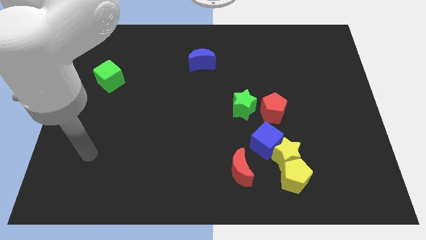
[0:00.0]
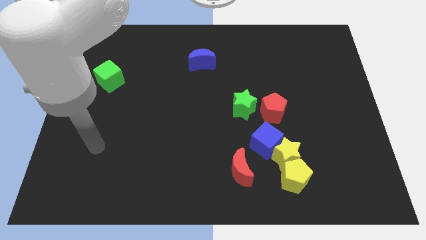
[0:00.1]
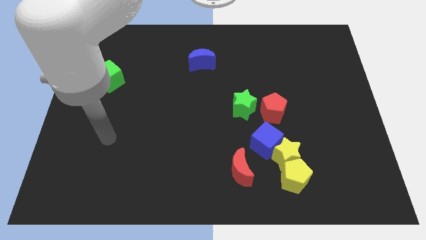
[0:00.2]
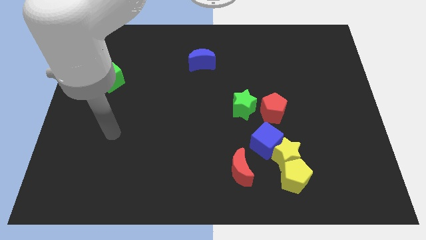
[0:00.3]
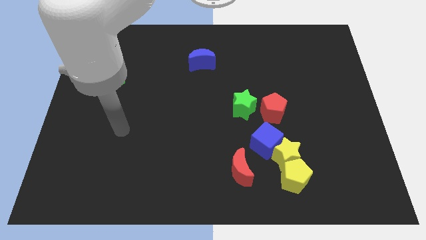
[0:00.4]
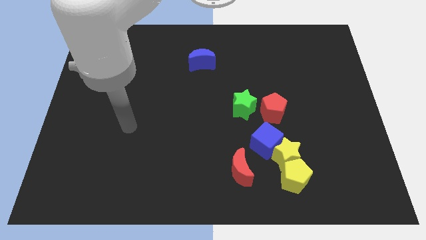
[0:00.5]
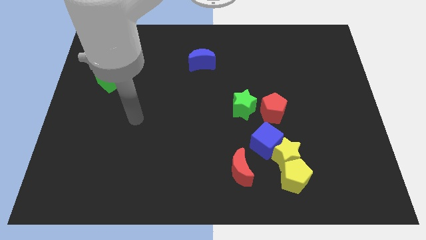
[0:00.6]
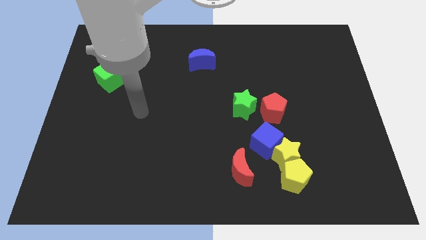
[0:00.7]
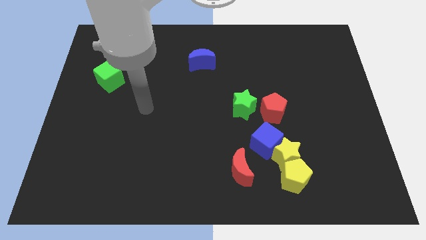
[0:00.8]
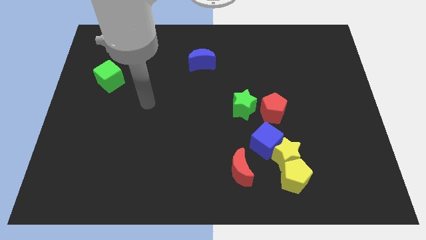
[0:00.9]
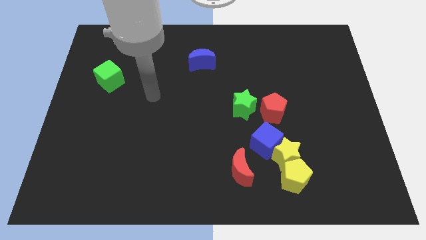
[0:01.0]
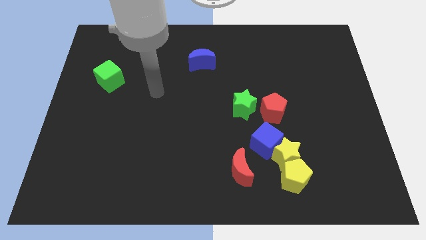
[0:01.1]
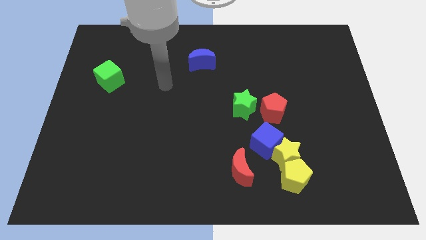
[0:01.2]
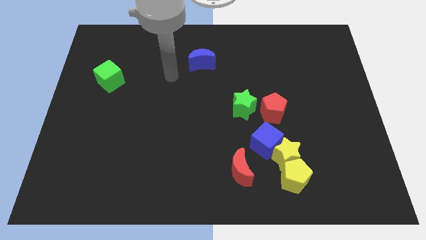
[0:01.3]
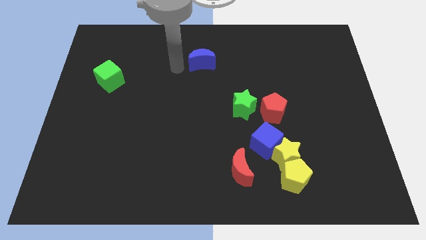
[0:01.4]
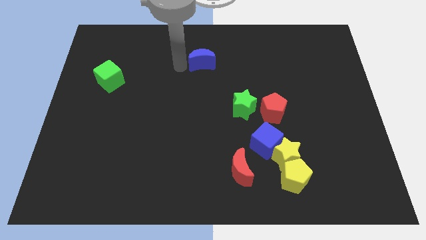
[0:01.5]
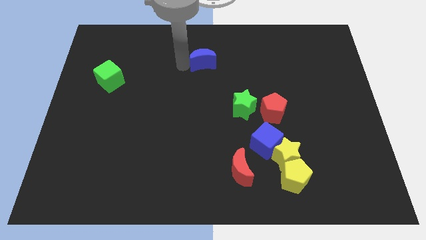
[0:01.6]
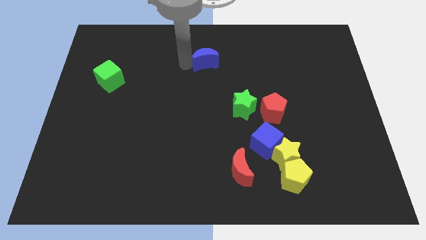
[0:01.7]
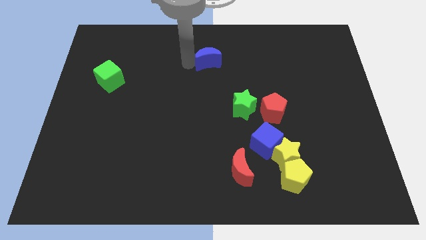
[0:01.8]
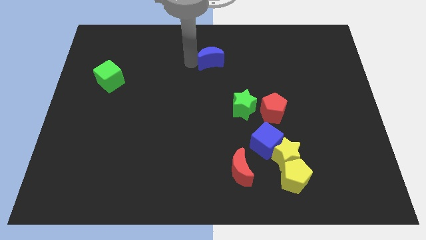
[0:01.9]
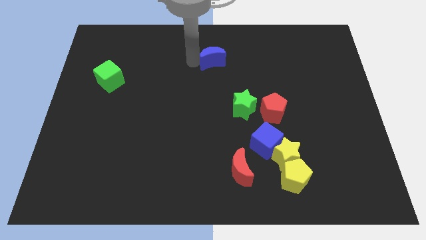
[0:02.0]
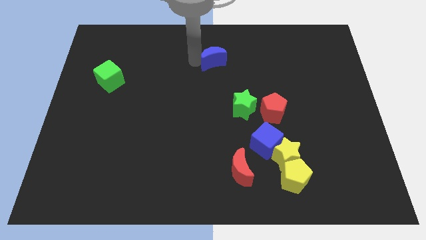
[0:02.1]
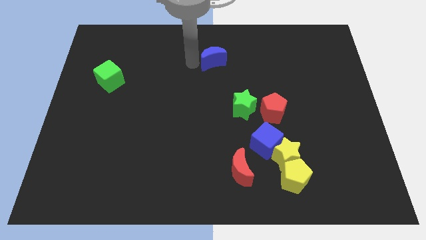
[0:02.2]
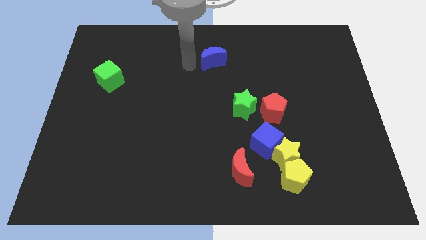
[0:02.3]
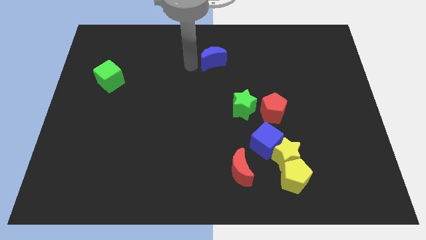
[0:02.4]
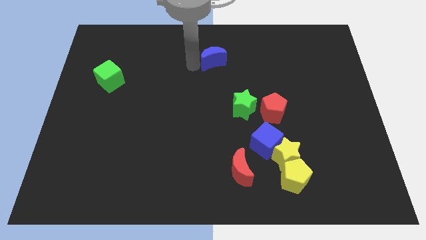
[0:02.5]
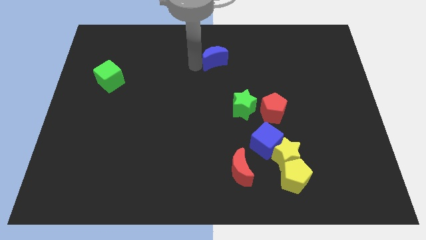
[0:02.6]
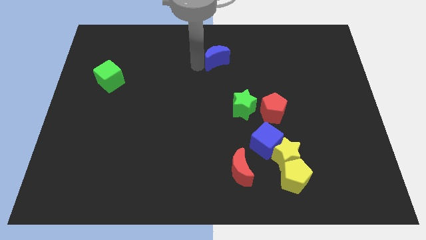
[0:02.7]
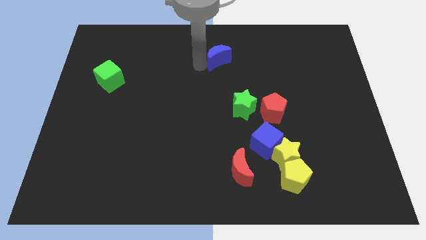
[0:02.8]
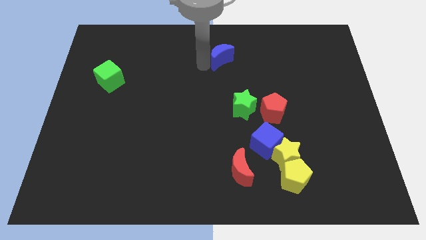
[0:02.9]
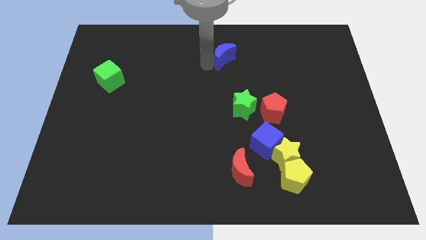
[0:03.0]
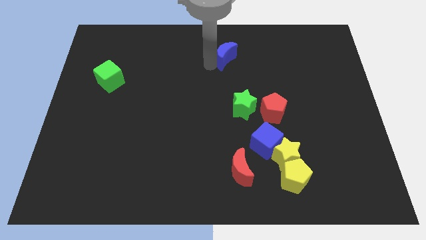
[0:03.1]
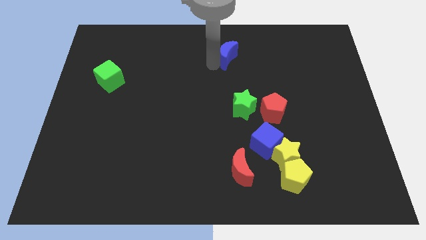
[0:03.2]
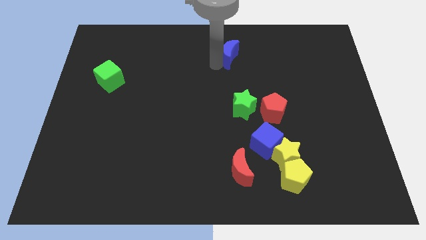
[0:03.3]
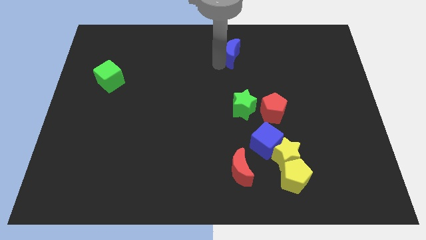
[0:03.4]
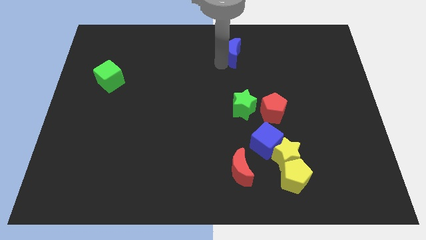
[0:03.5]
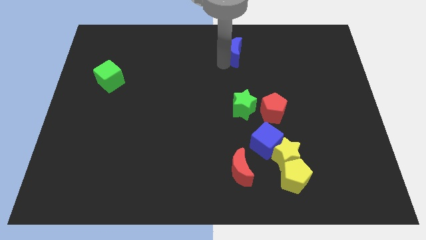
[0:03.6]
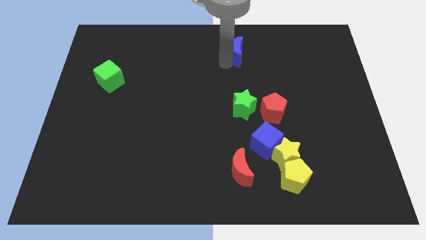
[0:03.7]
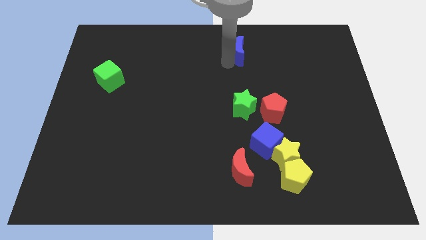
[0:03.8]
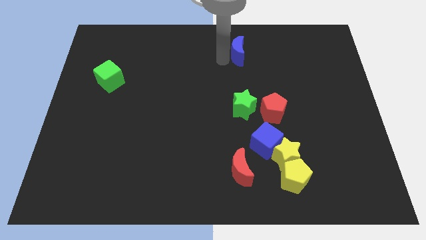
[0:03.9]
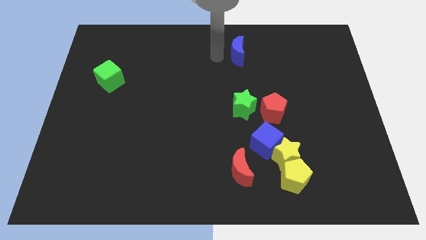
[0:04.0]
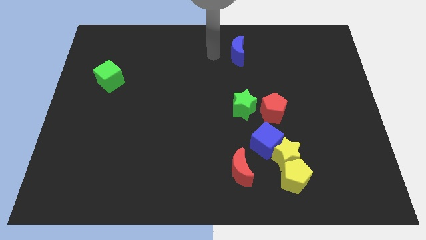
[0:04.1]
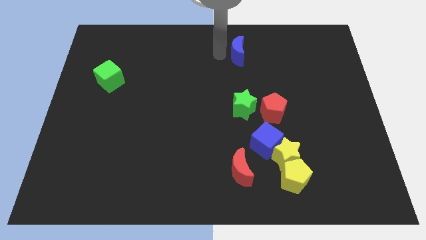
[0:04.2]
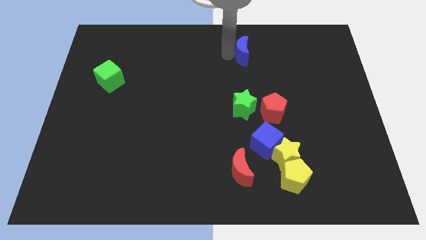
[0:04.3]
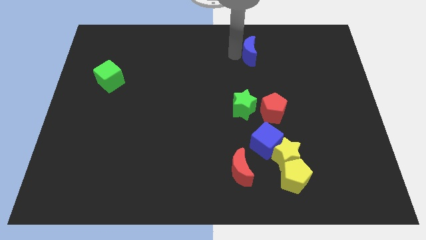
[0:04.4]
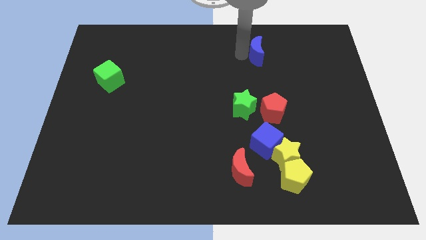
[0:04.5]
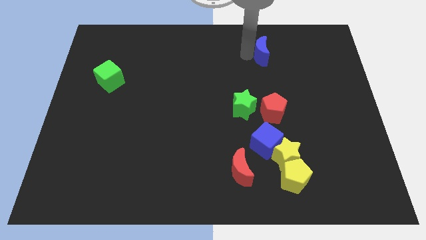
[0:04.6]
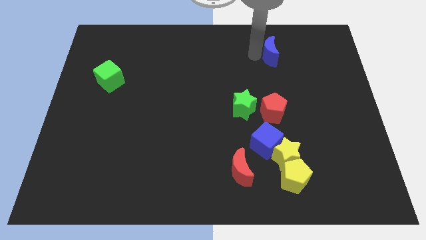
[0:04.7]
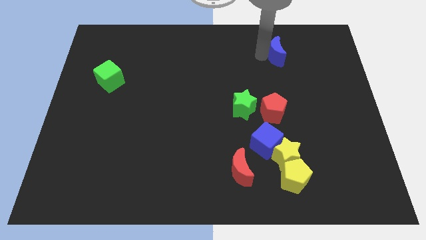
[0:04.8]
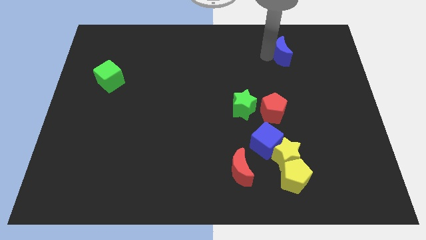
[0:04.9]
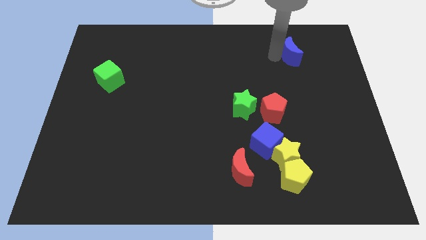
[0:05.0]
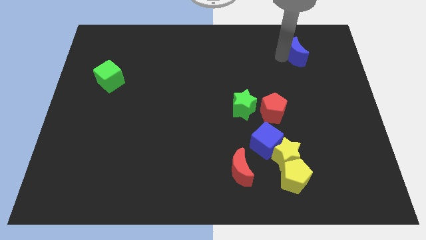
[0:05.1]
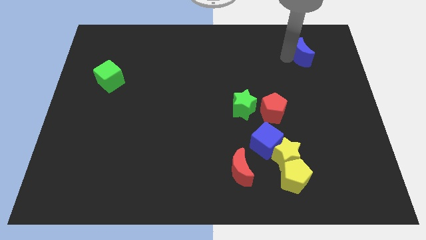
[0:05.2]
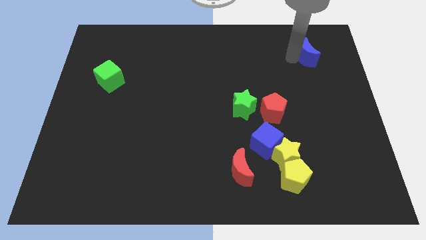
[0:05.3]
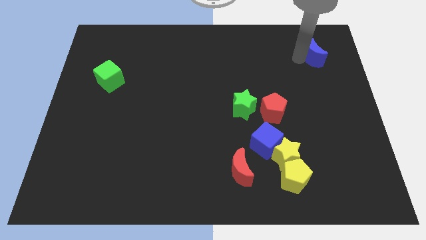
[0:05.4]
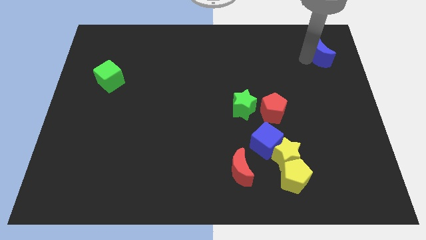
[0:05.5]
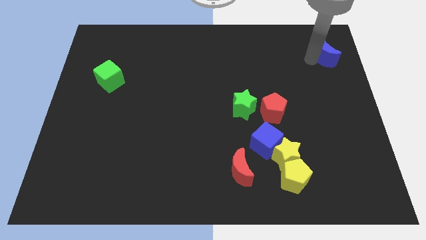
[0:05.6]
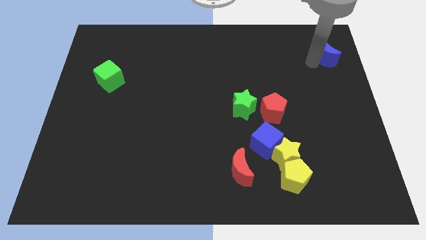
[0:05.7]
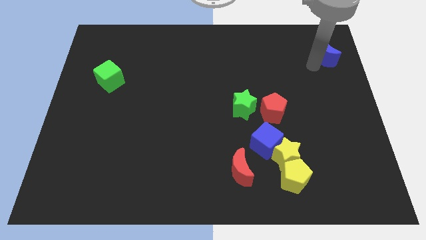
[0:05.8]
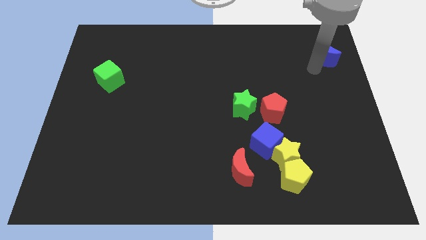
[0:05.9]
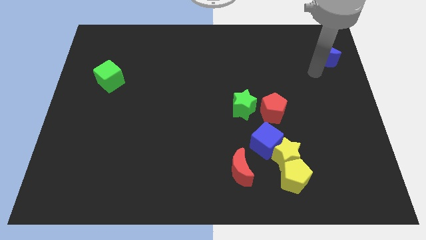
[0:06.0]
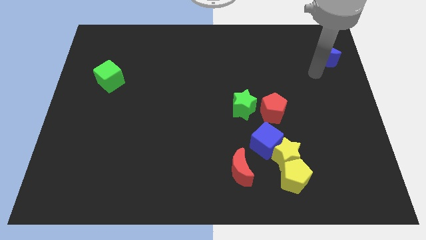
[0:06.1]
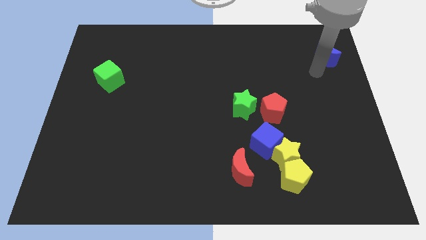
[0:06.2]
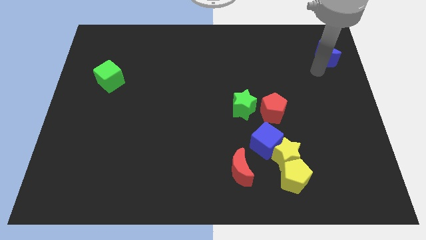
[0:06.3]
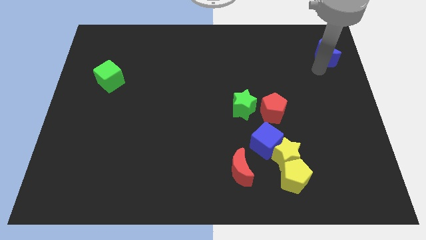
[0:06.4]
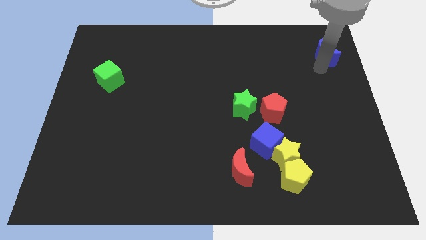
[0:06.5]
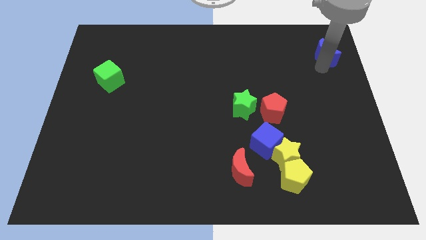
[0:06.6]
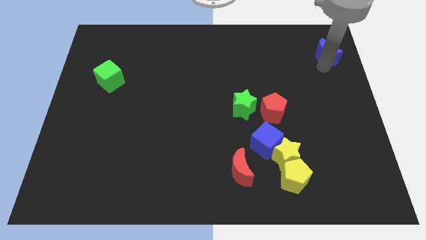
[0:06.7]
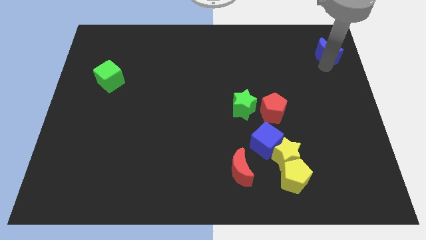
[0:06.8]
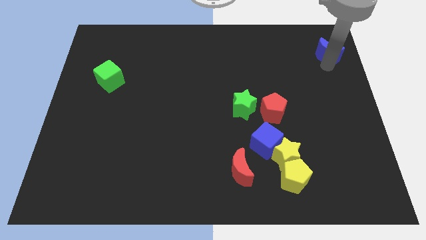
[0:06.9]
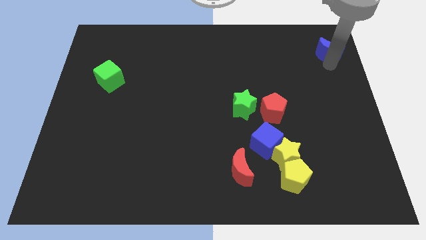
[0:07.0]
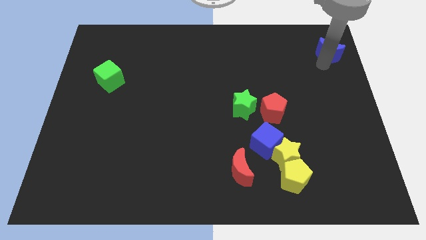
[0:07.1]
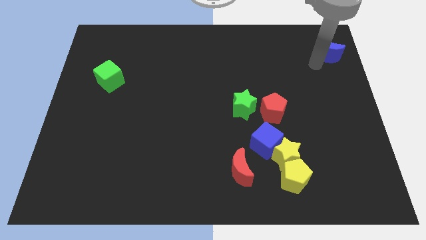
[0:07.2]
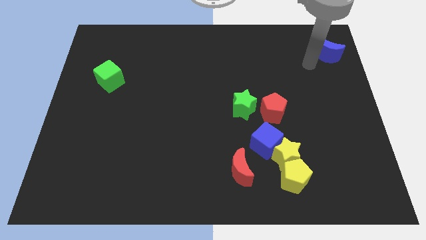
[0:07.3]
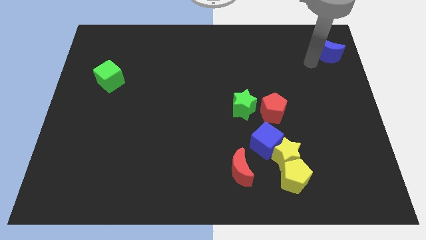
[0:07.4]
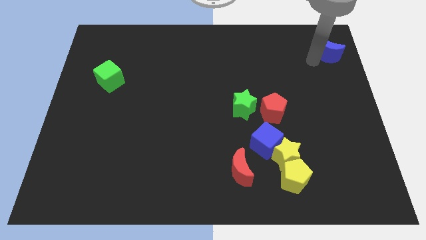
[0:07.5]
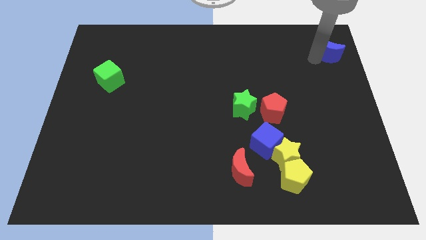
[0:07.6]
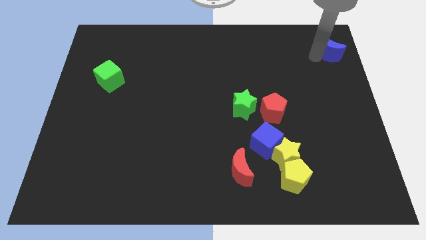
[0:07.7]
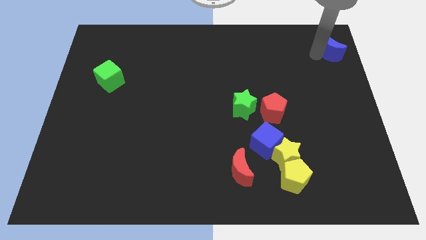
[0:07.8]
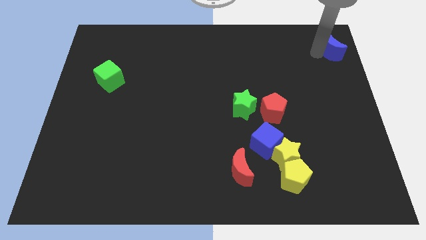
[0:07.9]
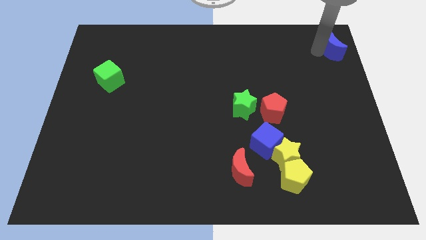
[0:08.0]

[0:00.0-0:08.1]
push the blue moon to the top right corner
